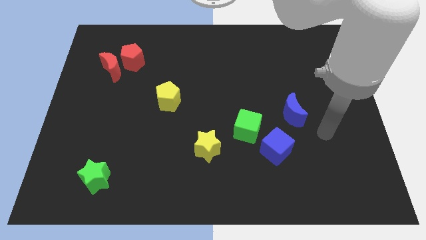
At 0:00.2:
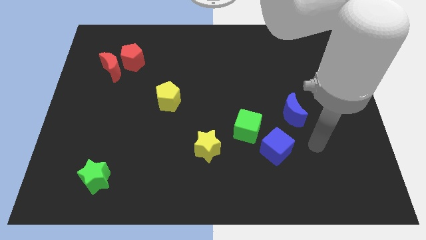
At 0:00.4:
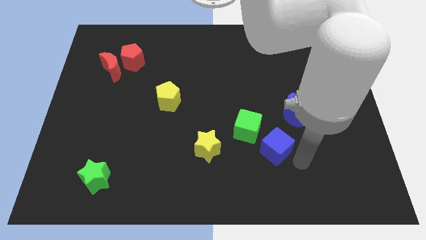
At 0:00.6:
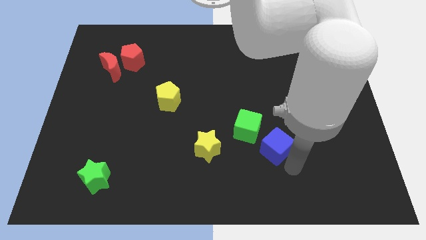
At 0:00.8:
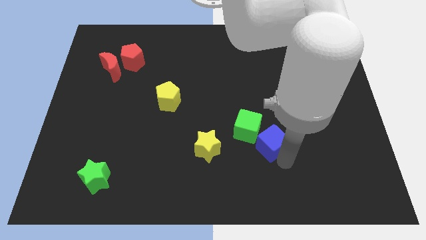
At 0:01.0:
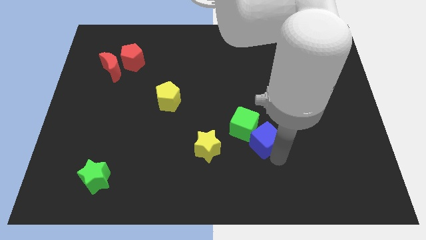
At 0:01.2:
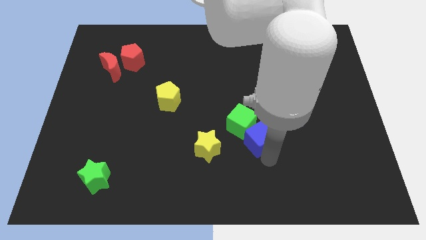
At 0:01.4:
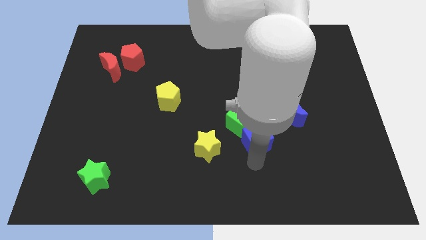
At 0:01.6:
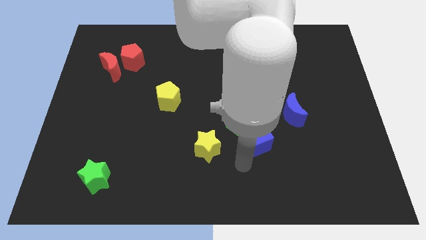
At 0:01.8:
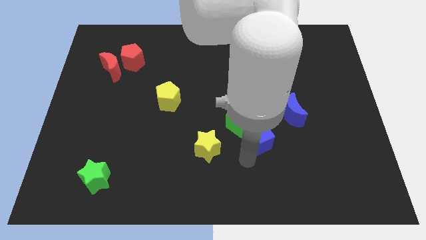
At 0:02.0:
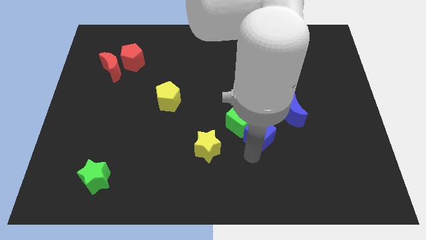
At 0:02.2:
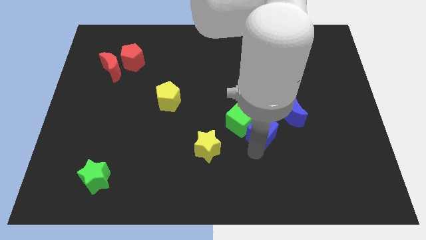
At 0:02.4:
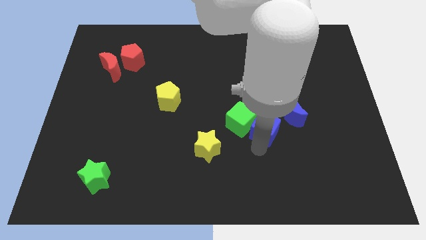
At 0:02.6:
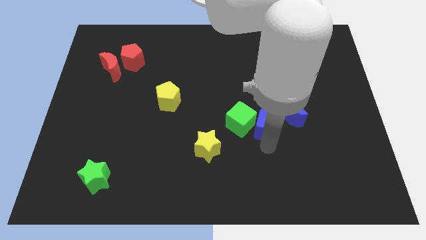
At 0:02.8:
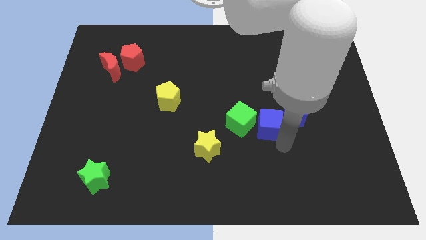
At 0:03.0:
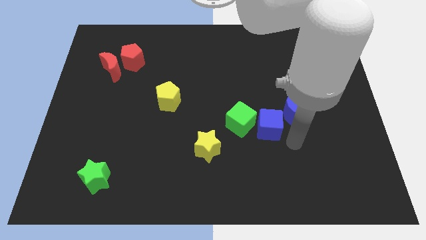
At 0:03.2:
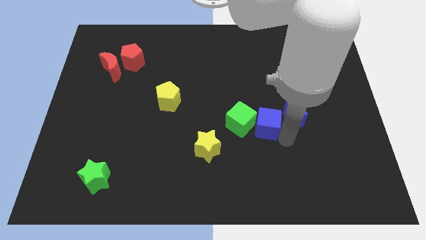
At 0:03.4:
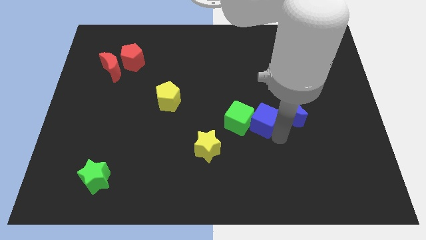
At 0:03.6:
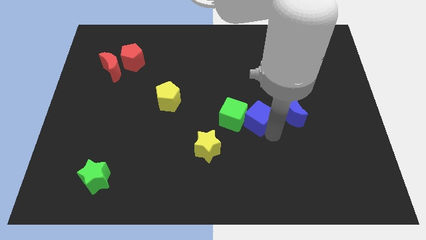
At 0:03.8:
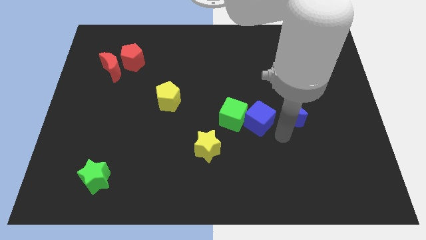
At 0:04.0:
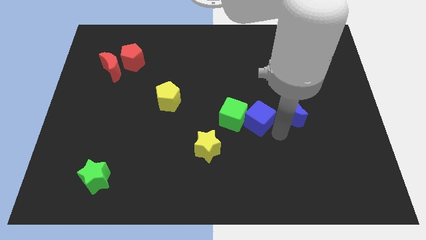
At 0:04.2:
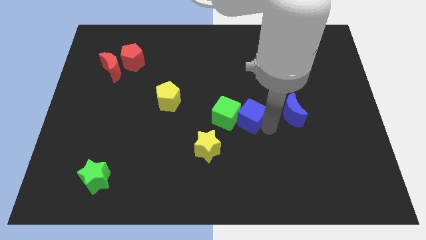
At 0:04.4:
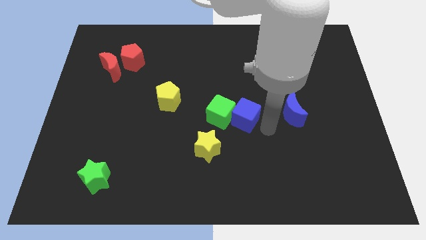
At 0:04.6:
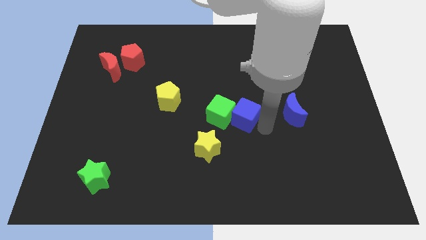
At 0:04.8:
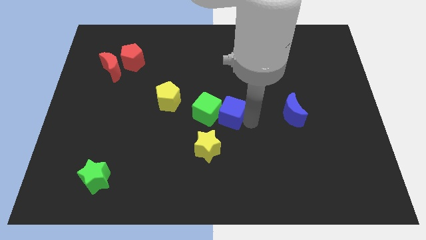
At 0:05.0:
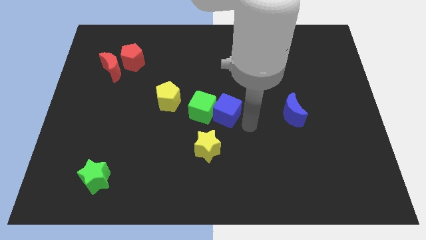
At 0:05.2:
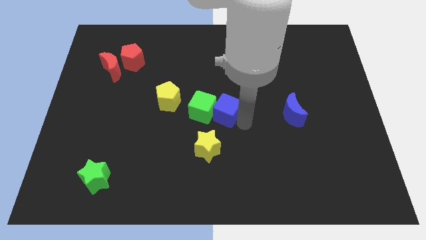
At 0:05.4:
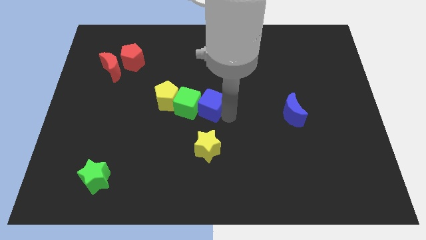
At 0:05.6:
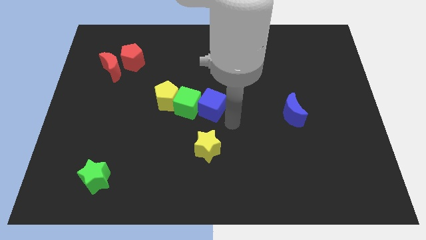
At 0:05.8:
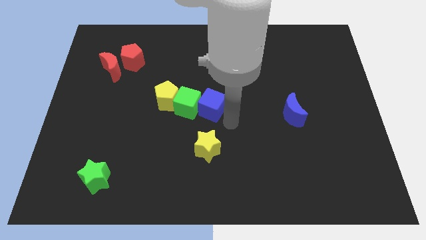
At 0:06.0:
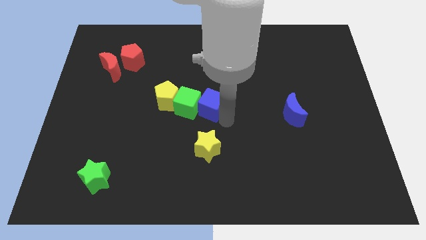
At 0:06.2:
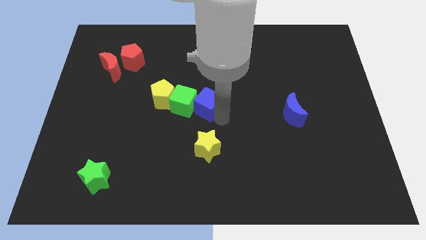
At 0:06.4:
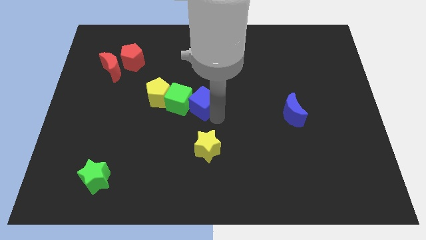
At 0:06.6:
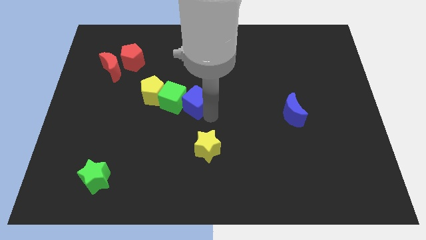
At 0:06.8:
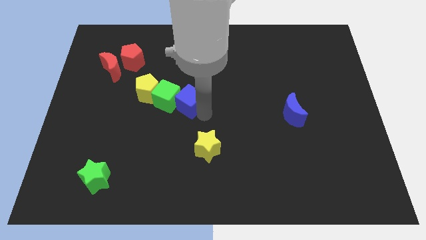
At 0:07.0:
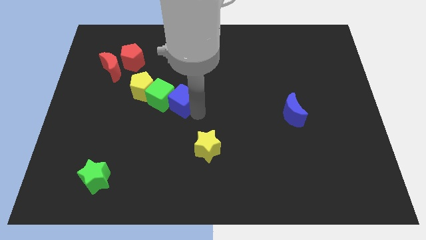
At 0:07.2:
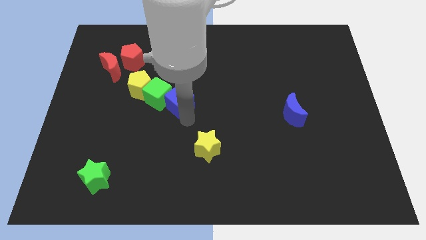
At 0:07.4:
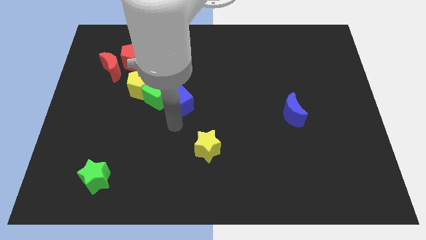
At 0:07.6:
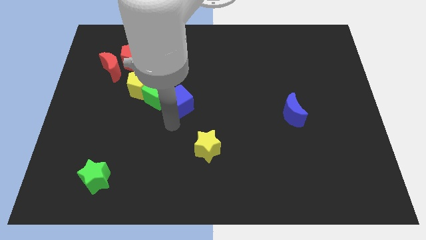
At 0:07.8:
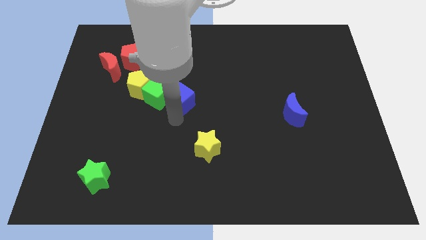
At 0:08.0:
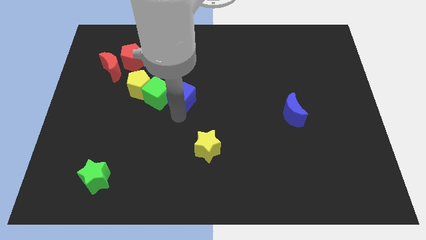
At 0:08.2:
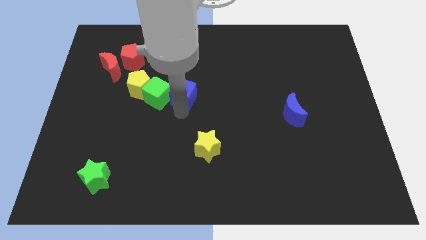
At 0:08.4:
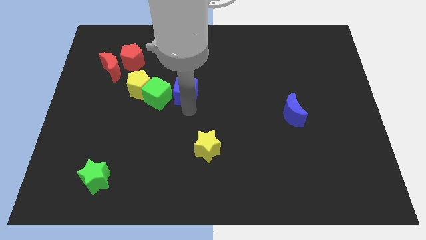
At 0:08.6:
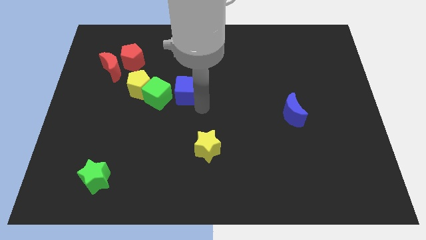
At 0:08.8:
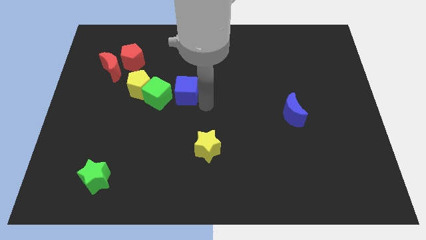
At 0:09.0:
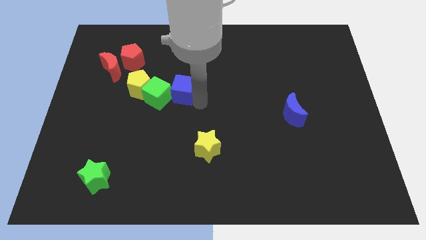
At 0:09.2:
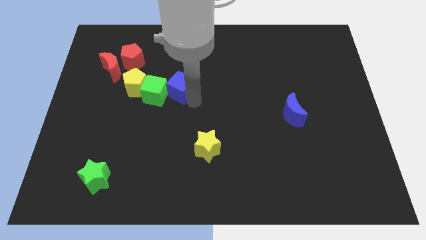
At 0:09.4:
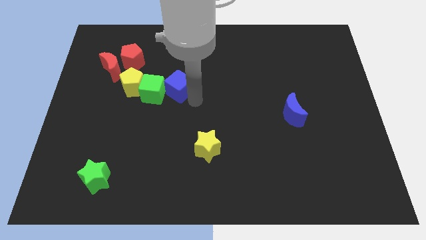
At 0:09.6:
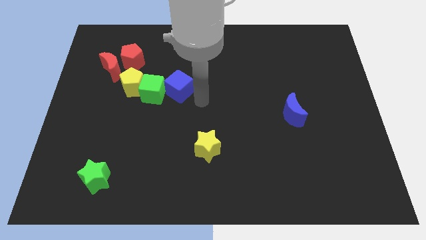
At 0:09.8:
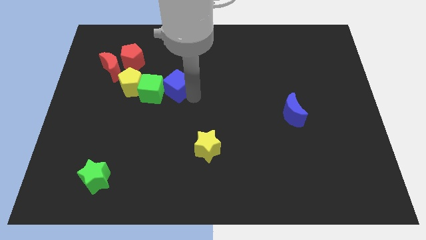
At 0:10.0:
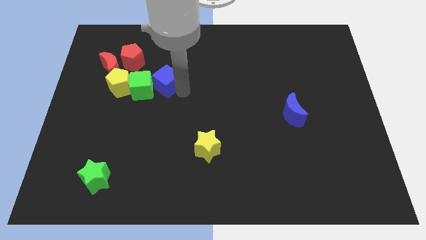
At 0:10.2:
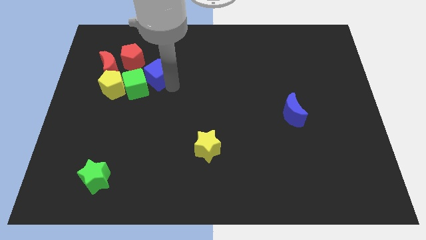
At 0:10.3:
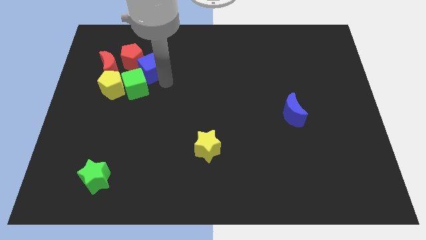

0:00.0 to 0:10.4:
push the blue cube to the red pentagon

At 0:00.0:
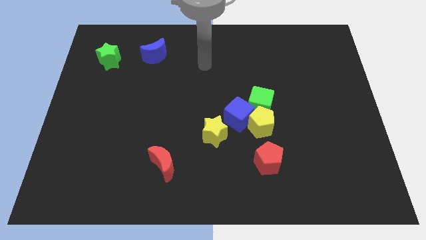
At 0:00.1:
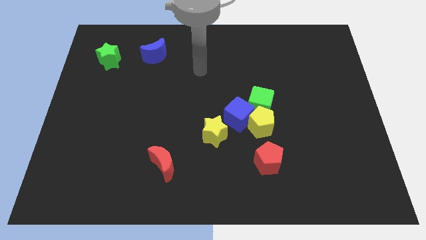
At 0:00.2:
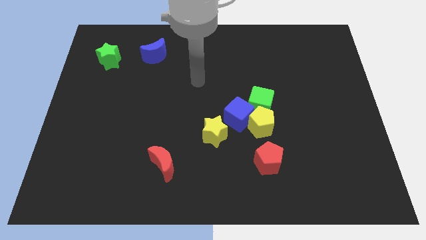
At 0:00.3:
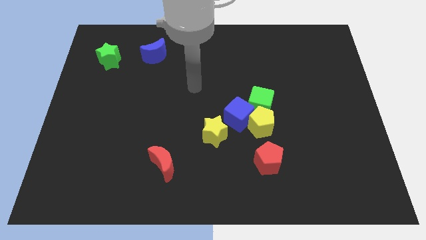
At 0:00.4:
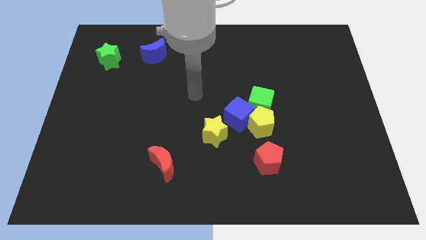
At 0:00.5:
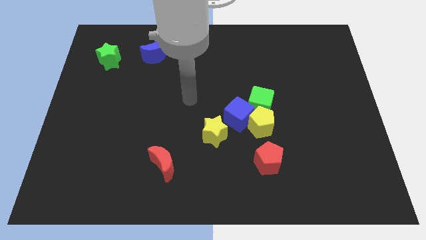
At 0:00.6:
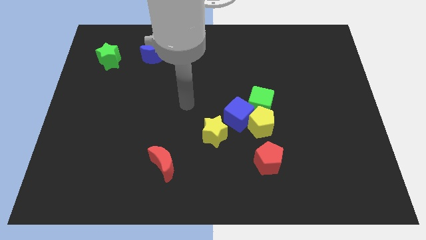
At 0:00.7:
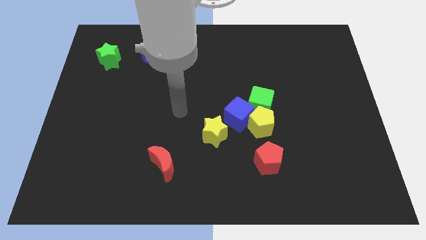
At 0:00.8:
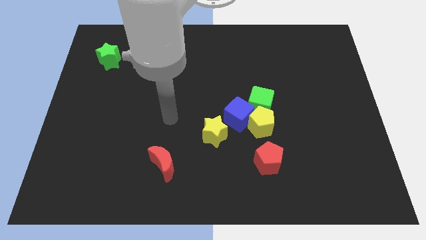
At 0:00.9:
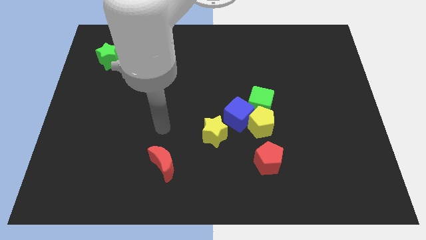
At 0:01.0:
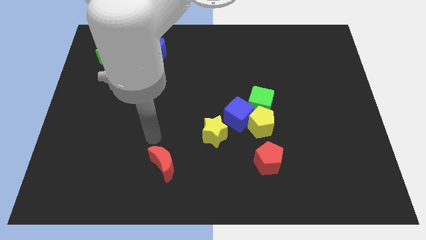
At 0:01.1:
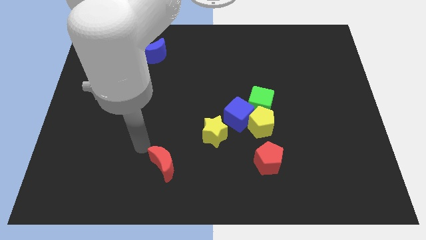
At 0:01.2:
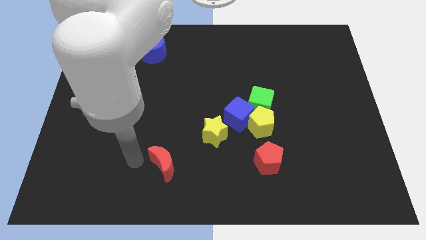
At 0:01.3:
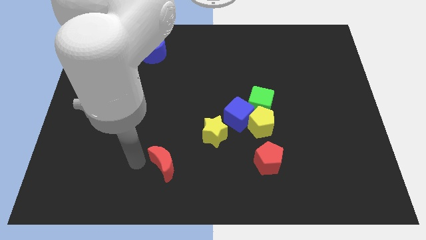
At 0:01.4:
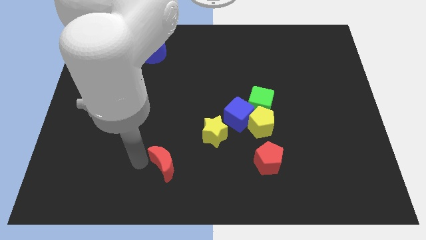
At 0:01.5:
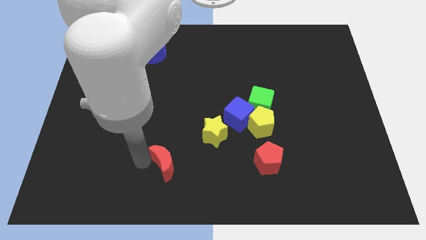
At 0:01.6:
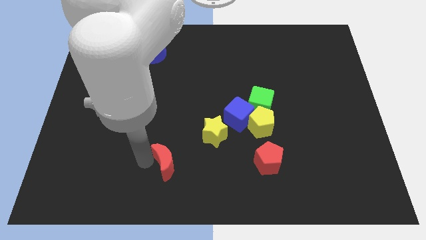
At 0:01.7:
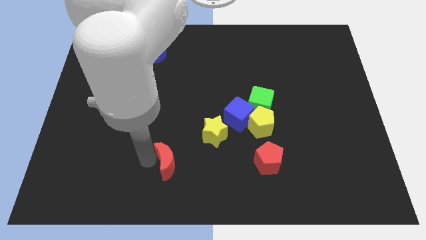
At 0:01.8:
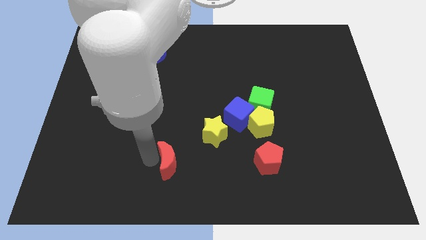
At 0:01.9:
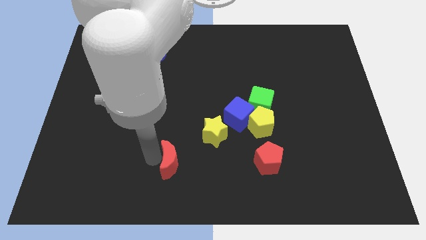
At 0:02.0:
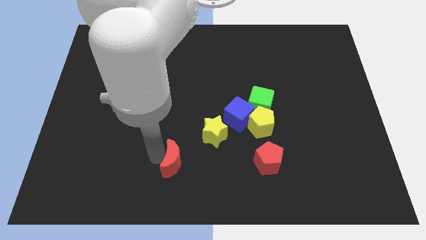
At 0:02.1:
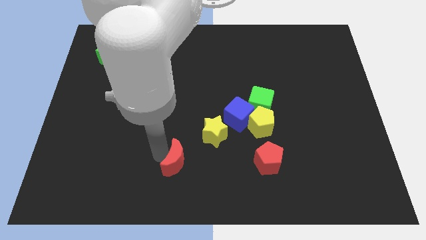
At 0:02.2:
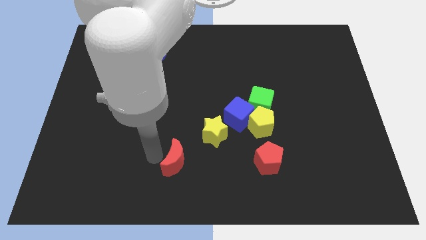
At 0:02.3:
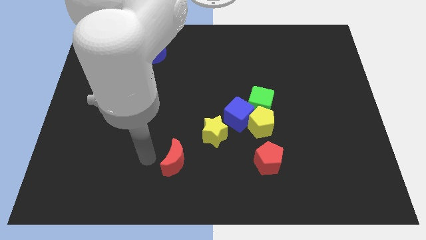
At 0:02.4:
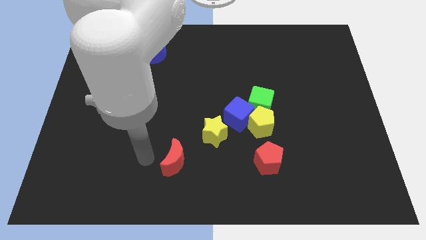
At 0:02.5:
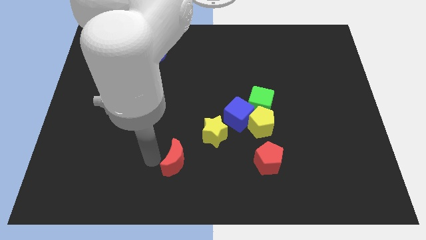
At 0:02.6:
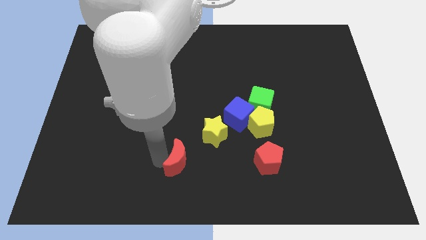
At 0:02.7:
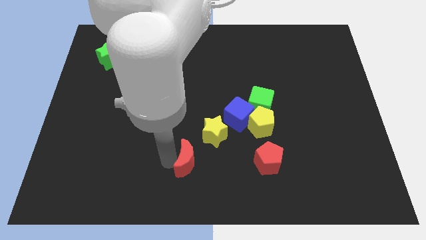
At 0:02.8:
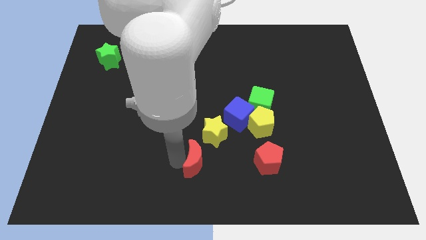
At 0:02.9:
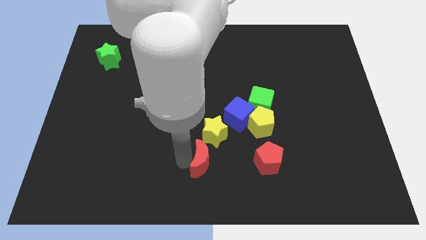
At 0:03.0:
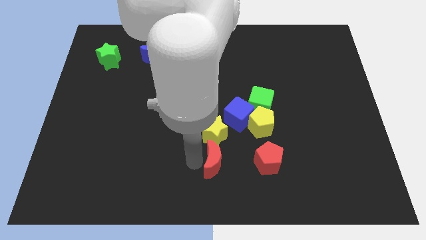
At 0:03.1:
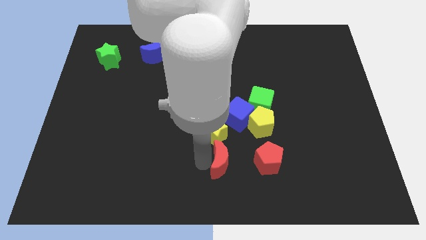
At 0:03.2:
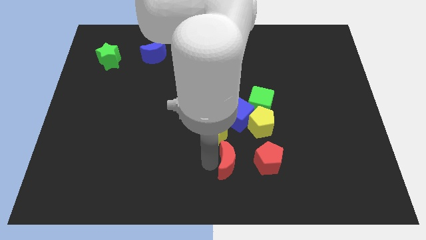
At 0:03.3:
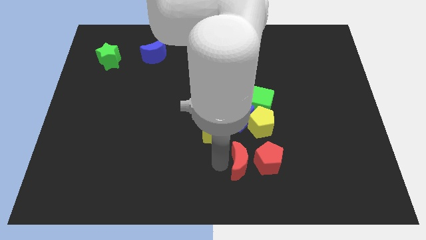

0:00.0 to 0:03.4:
put the red moon close to the red pentagon
